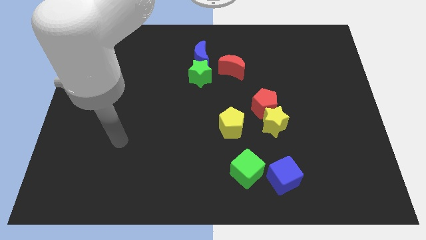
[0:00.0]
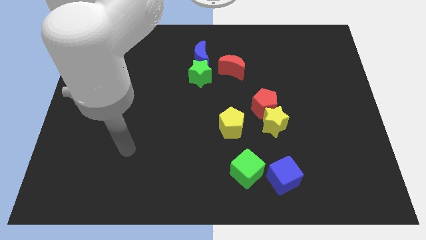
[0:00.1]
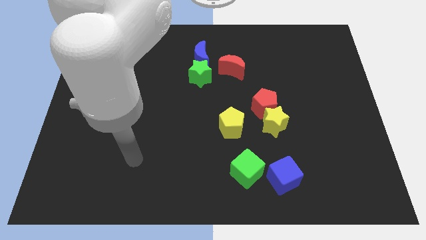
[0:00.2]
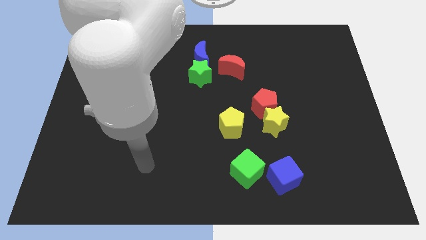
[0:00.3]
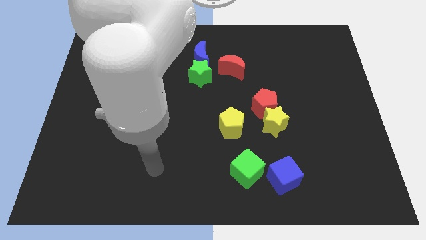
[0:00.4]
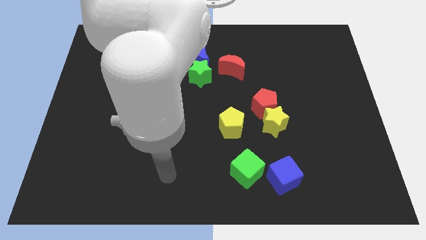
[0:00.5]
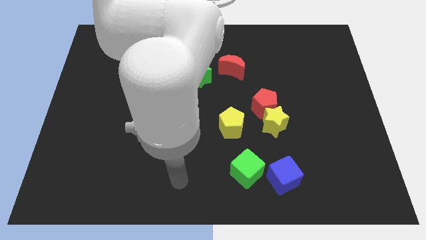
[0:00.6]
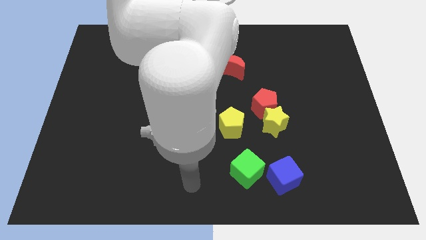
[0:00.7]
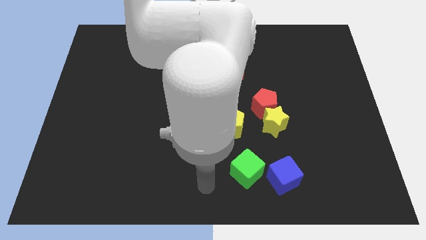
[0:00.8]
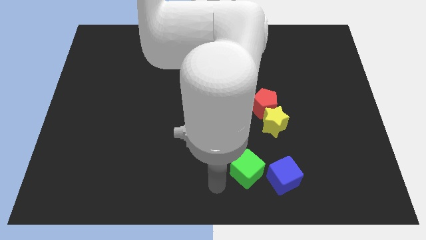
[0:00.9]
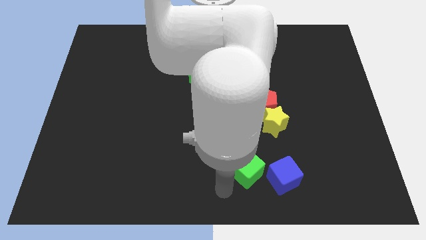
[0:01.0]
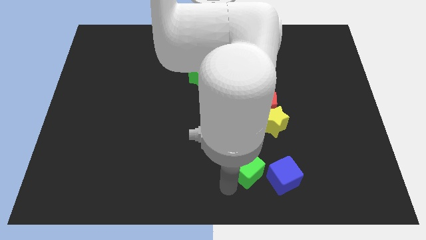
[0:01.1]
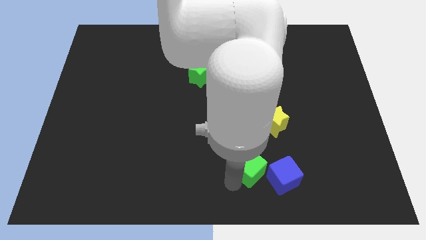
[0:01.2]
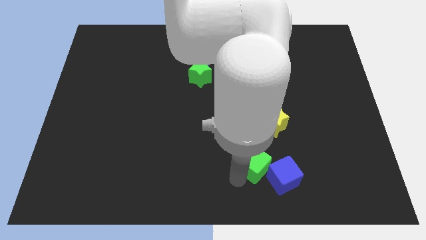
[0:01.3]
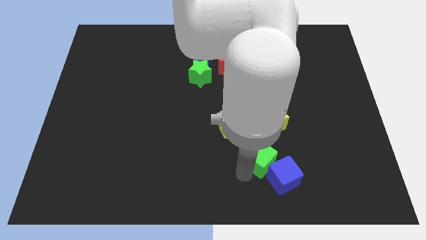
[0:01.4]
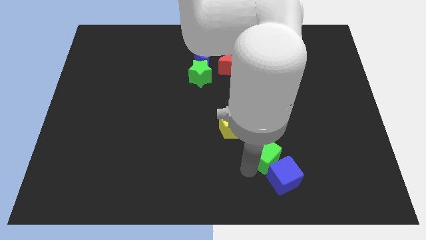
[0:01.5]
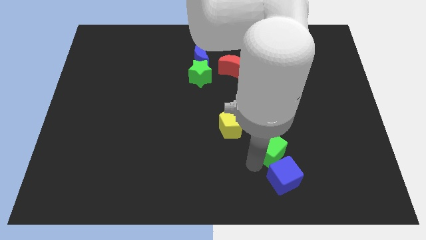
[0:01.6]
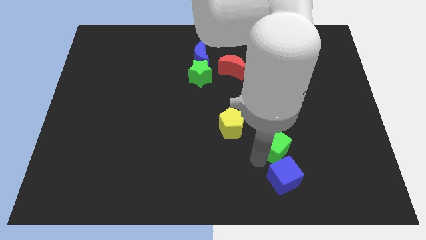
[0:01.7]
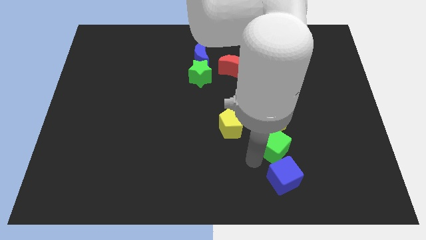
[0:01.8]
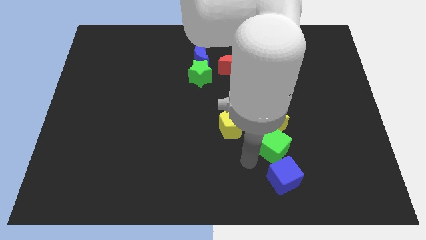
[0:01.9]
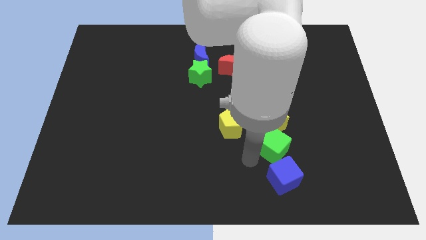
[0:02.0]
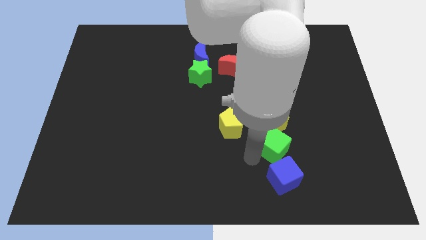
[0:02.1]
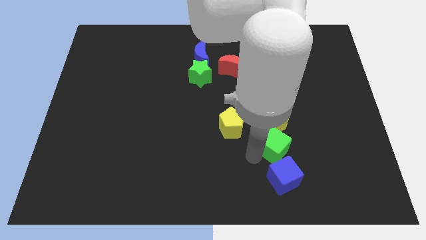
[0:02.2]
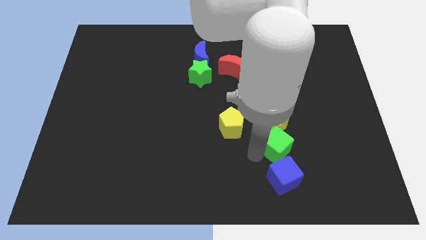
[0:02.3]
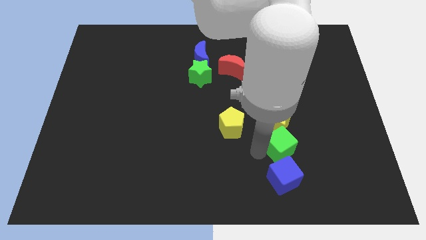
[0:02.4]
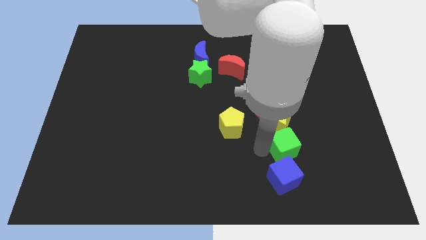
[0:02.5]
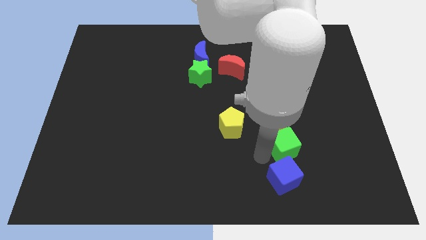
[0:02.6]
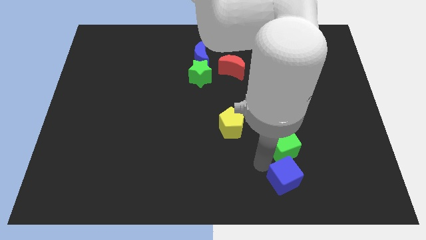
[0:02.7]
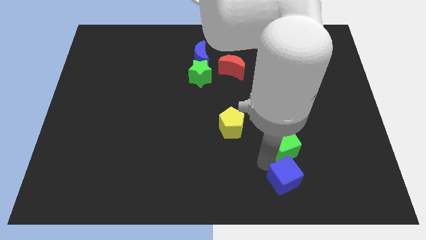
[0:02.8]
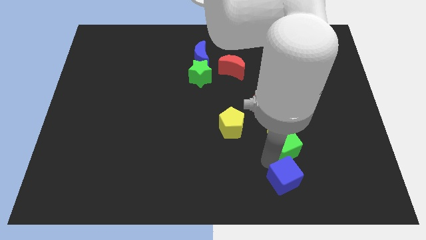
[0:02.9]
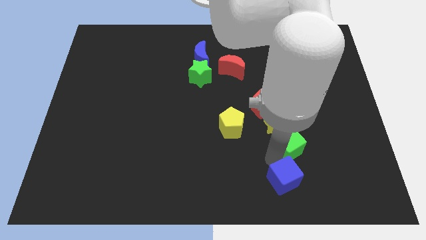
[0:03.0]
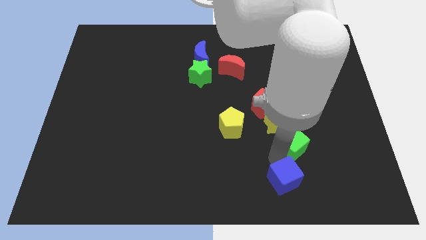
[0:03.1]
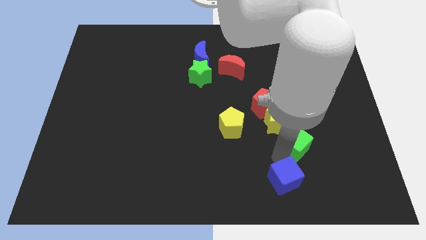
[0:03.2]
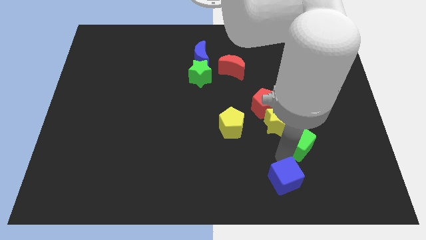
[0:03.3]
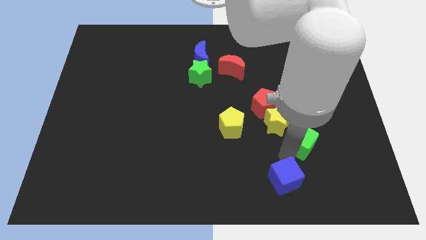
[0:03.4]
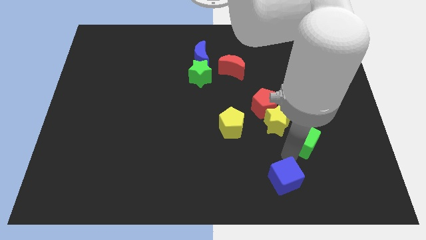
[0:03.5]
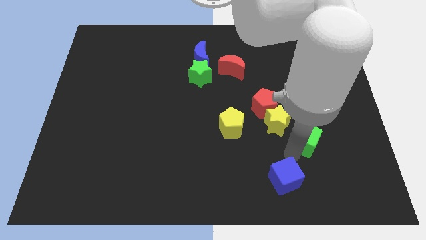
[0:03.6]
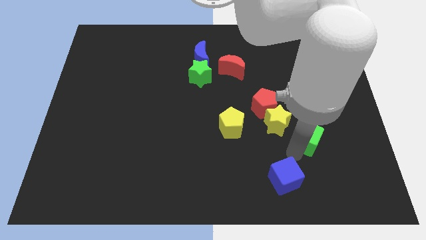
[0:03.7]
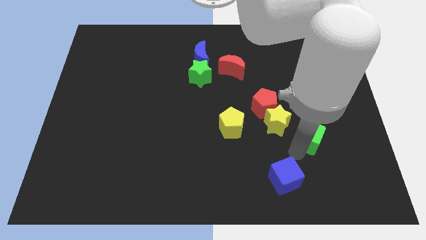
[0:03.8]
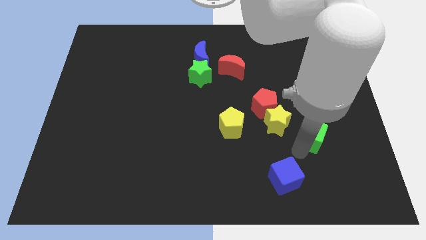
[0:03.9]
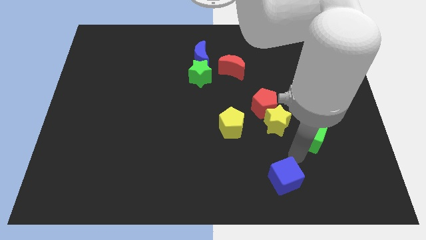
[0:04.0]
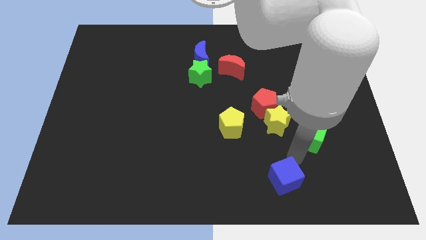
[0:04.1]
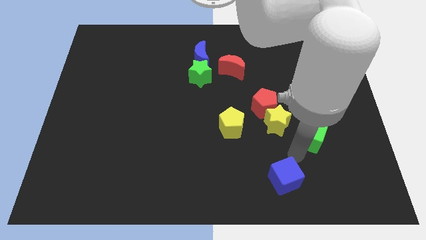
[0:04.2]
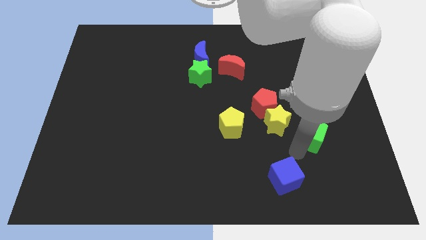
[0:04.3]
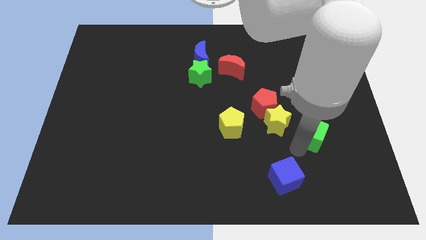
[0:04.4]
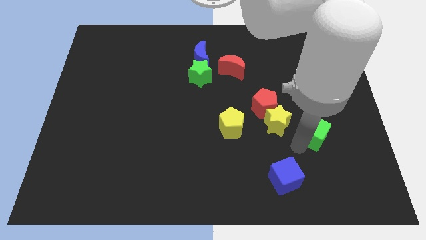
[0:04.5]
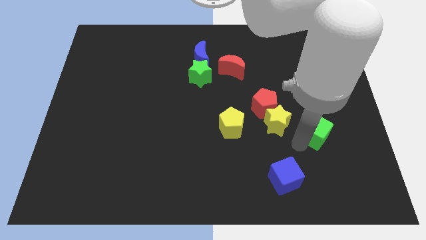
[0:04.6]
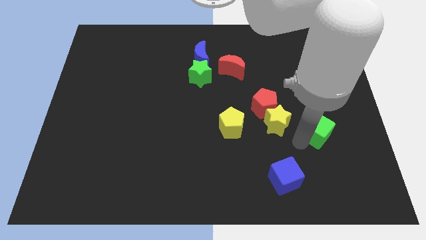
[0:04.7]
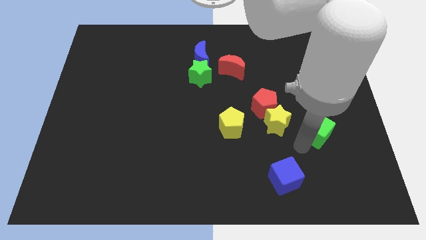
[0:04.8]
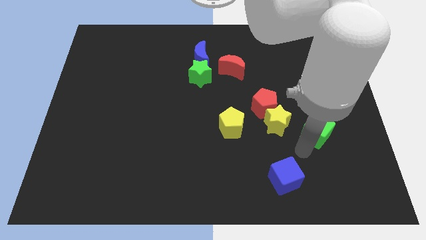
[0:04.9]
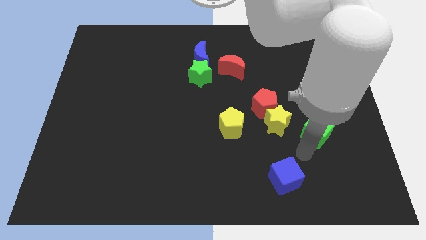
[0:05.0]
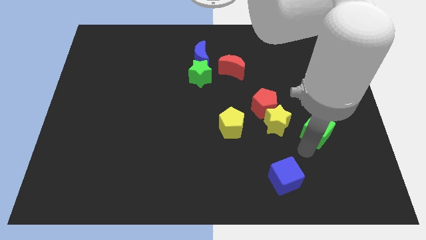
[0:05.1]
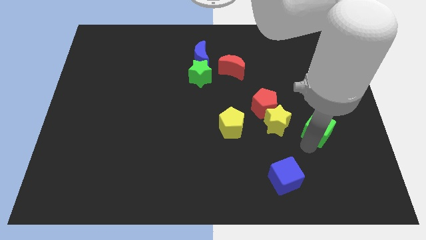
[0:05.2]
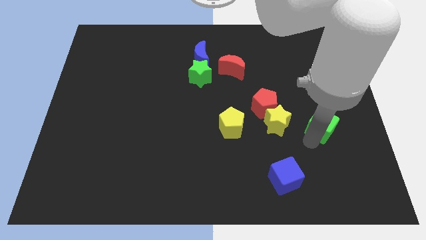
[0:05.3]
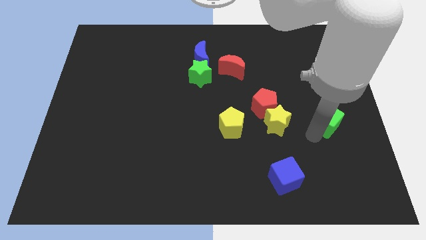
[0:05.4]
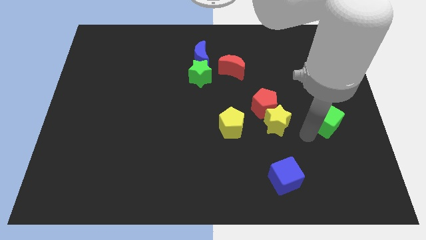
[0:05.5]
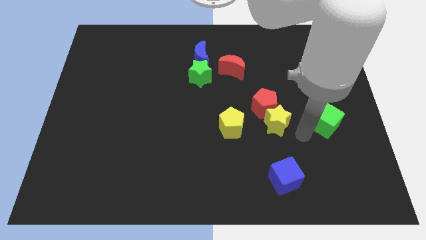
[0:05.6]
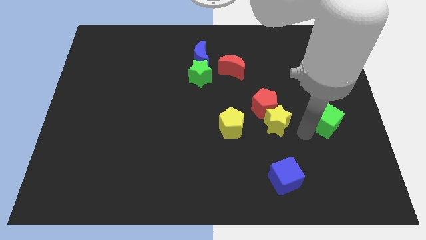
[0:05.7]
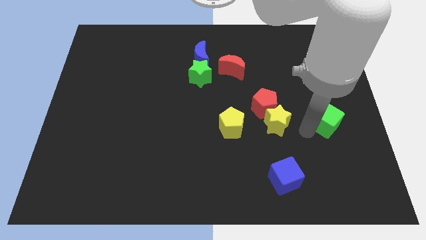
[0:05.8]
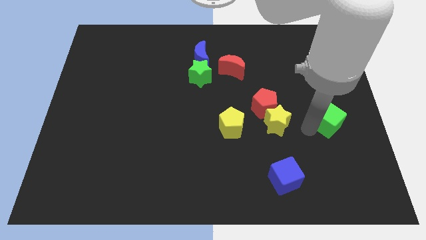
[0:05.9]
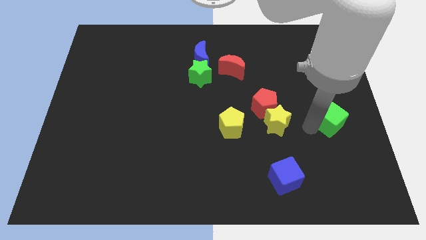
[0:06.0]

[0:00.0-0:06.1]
slide the green cube to the right side of the board
